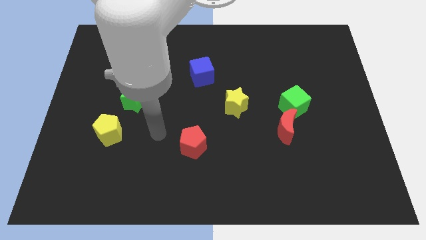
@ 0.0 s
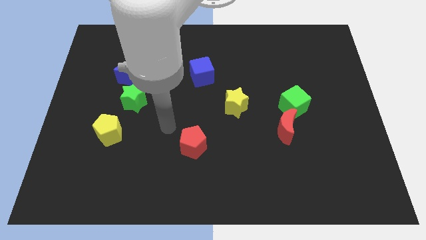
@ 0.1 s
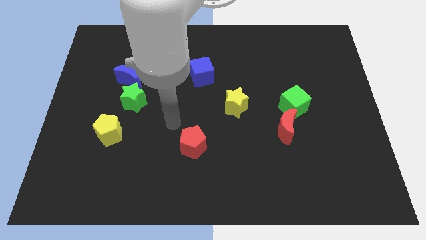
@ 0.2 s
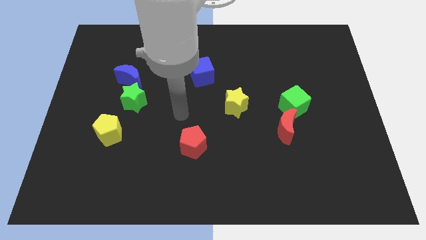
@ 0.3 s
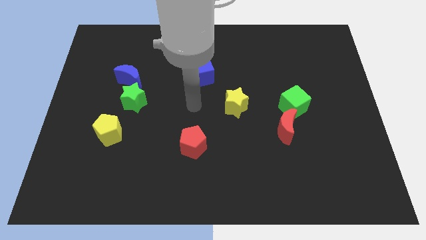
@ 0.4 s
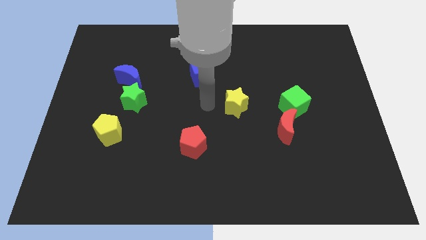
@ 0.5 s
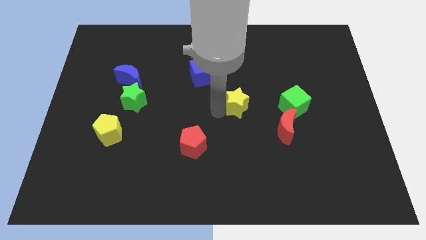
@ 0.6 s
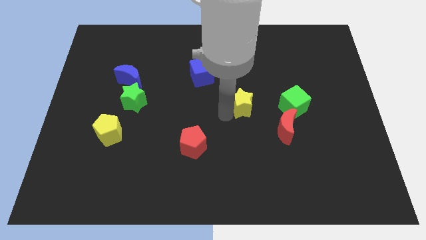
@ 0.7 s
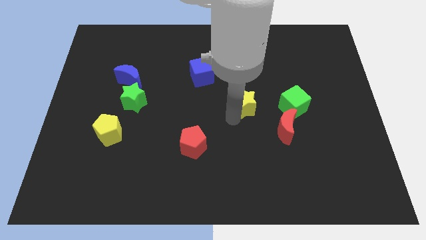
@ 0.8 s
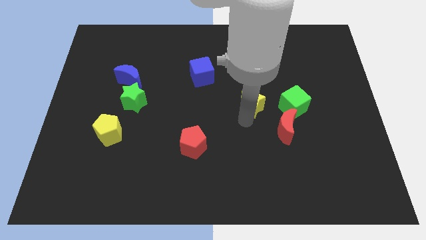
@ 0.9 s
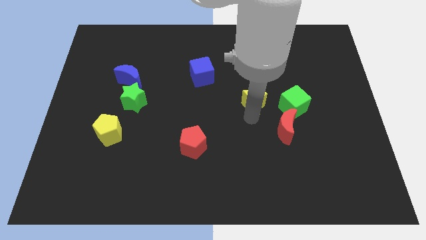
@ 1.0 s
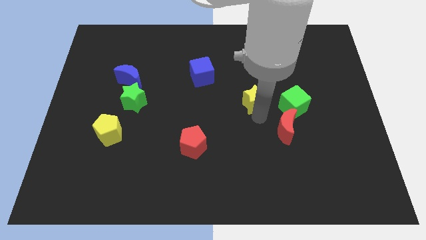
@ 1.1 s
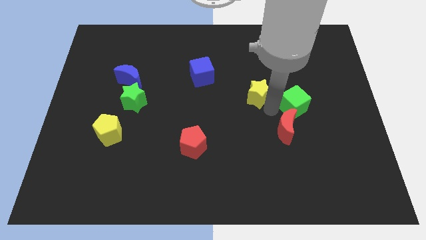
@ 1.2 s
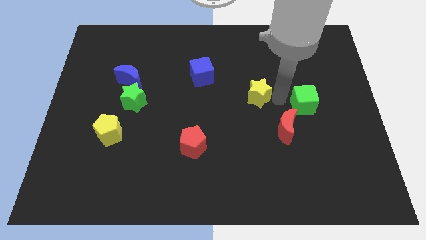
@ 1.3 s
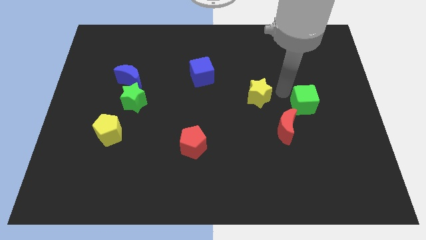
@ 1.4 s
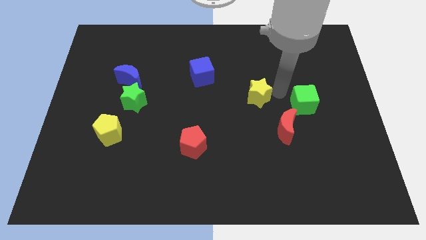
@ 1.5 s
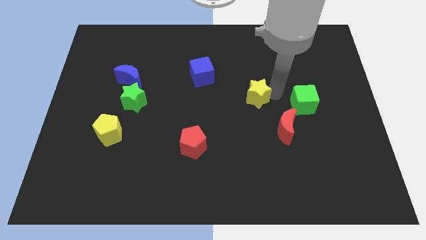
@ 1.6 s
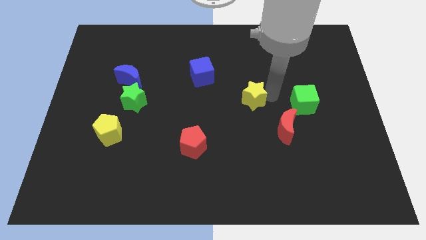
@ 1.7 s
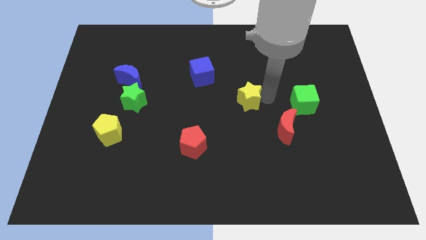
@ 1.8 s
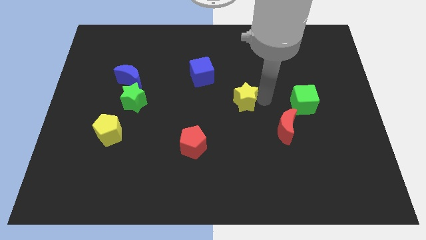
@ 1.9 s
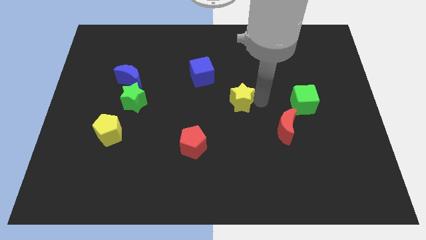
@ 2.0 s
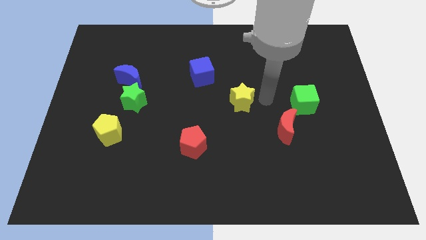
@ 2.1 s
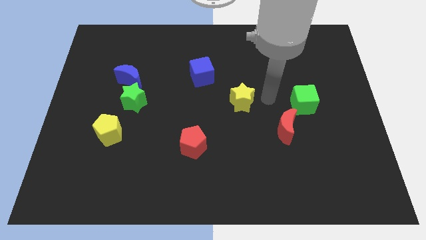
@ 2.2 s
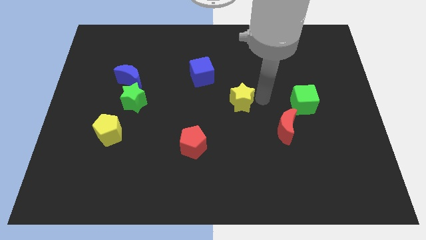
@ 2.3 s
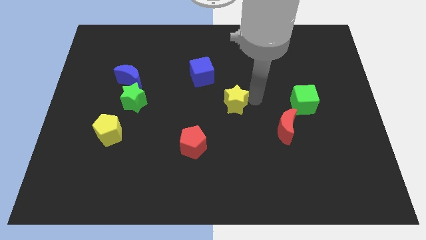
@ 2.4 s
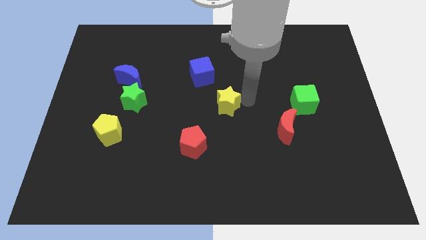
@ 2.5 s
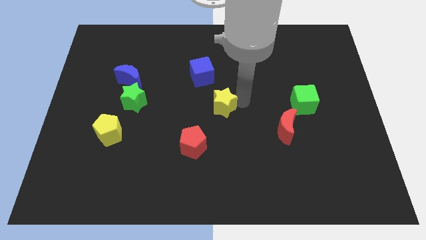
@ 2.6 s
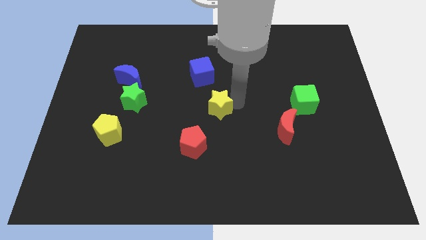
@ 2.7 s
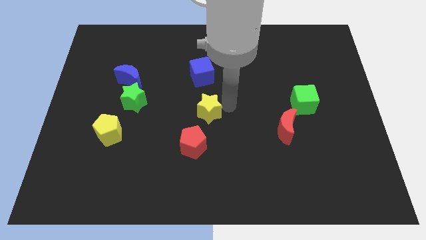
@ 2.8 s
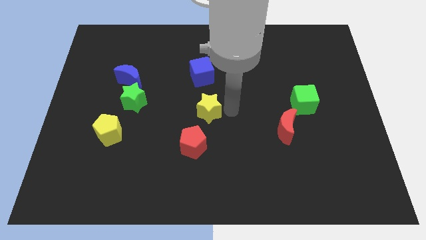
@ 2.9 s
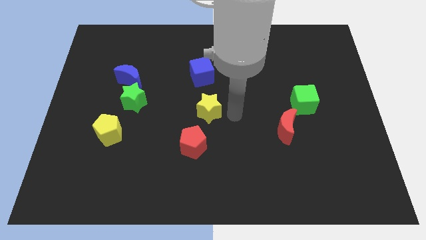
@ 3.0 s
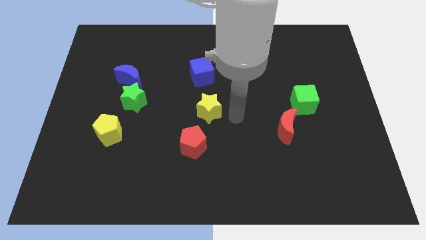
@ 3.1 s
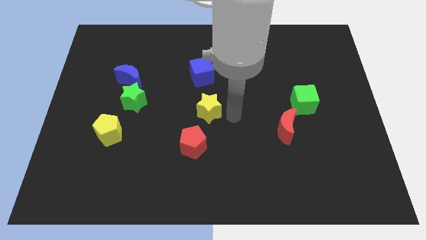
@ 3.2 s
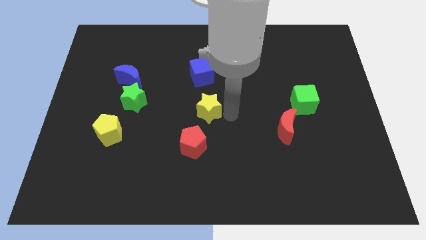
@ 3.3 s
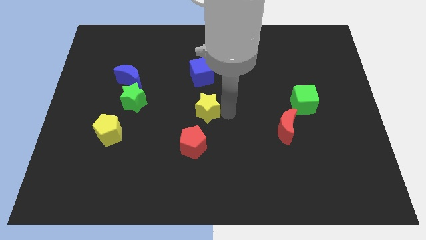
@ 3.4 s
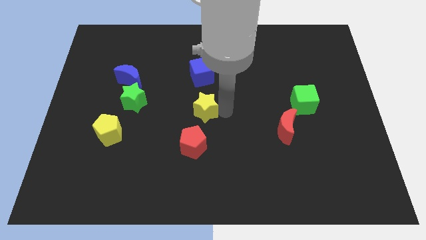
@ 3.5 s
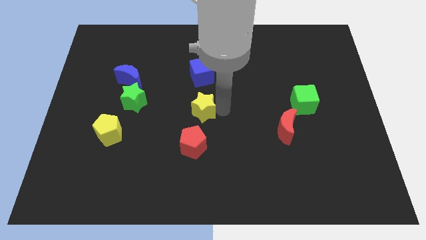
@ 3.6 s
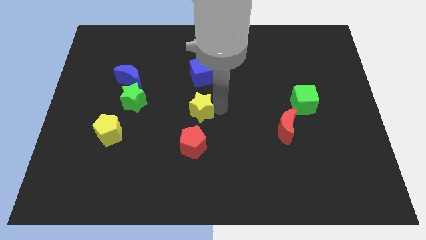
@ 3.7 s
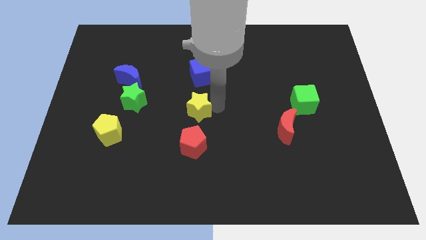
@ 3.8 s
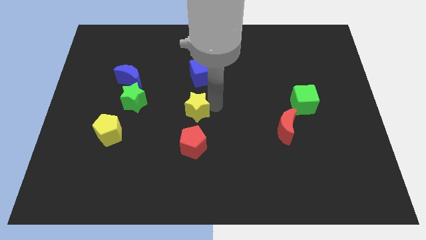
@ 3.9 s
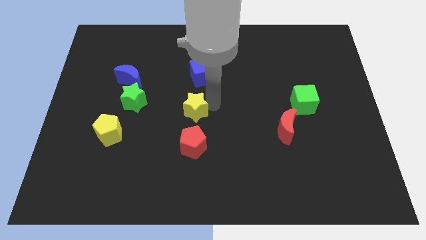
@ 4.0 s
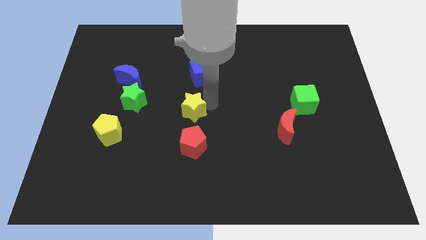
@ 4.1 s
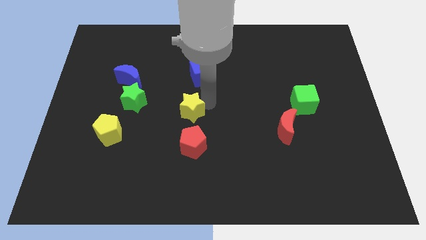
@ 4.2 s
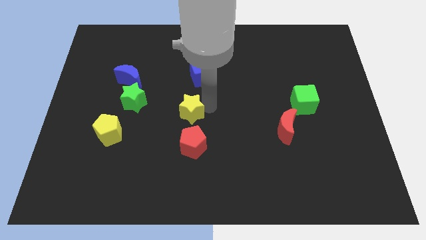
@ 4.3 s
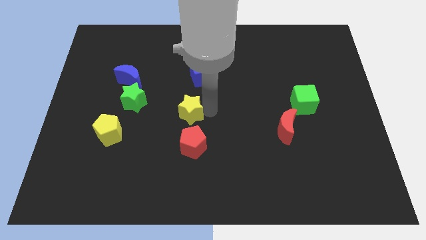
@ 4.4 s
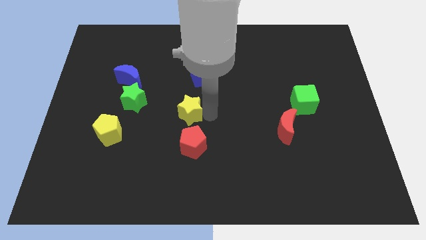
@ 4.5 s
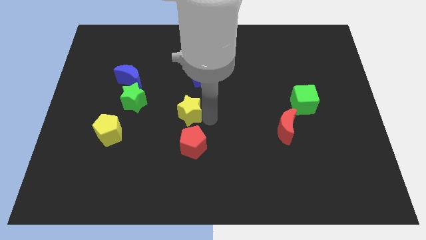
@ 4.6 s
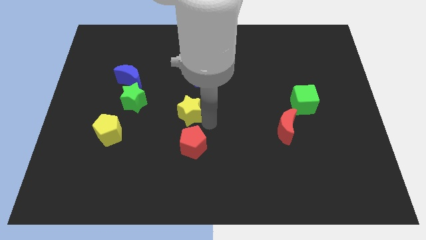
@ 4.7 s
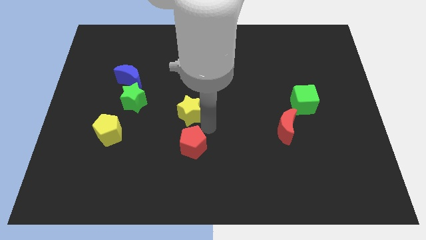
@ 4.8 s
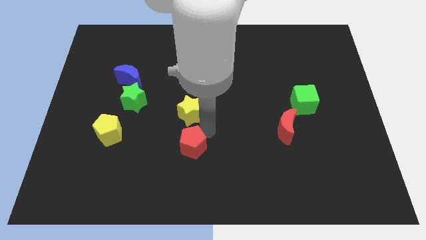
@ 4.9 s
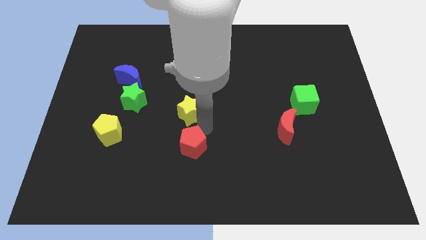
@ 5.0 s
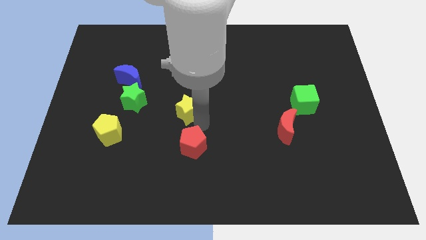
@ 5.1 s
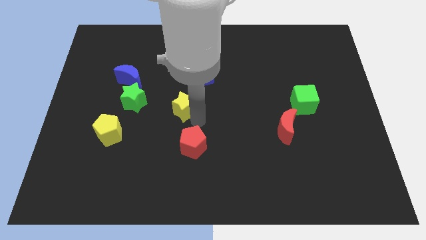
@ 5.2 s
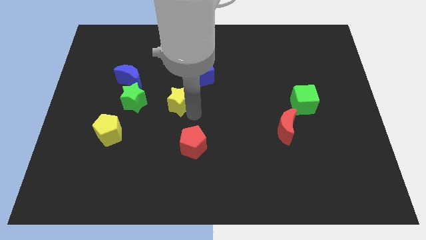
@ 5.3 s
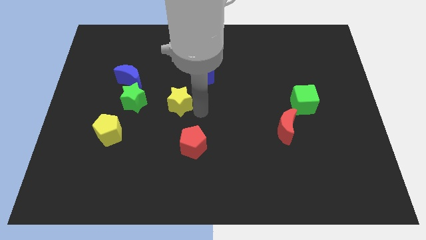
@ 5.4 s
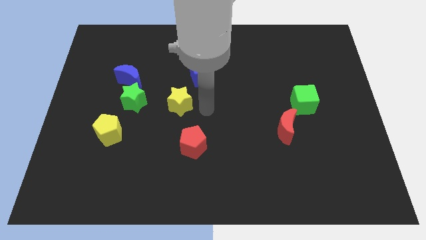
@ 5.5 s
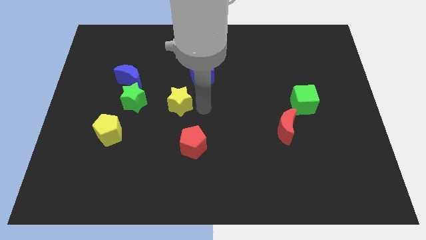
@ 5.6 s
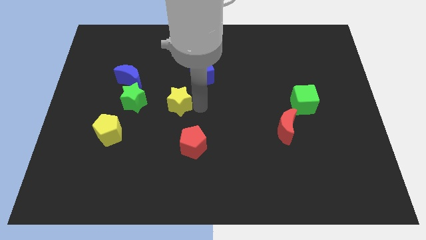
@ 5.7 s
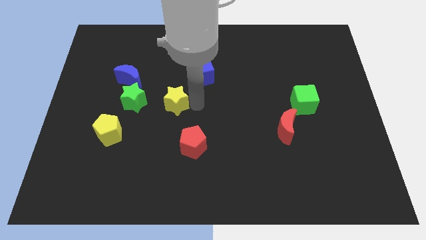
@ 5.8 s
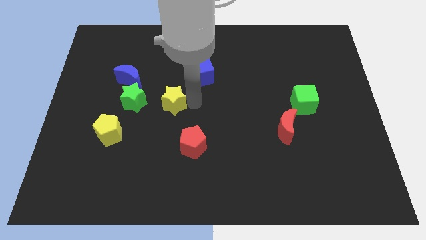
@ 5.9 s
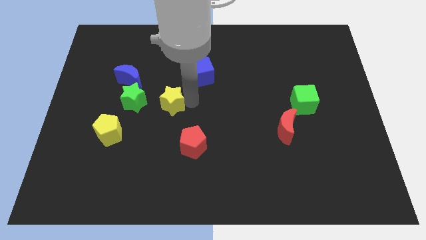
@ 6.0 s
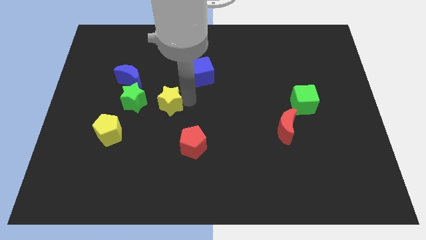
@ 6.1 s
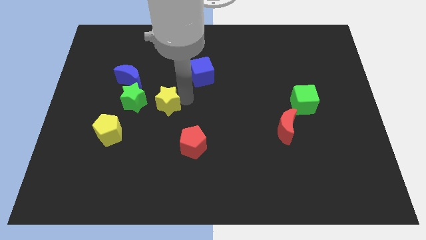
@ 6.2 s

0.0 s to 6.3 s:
push the yellow star diagonally down and to the right of the blue moon

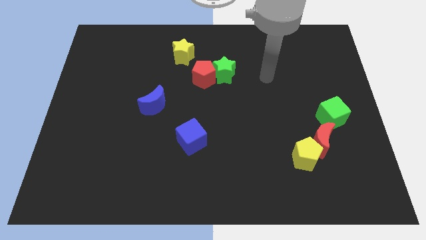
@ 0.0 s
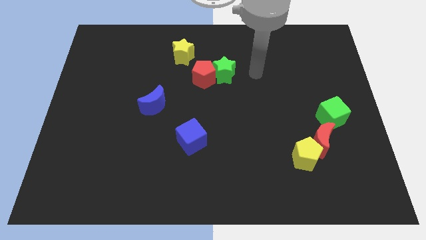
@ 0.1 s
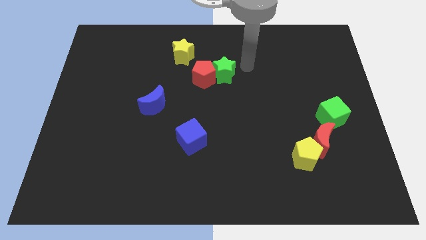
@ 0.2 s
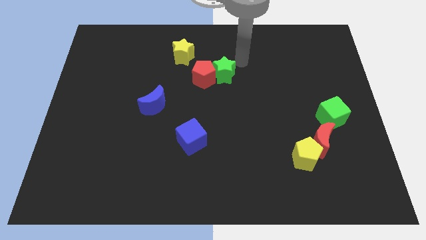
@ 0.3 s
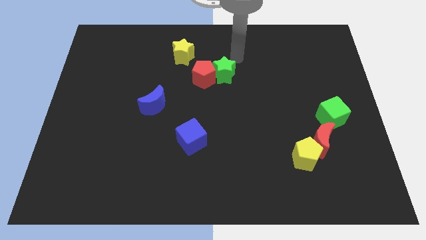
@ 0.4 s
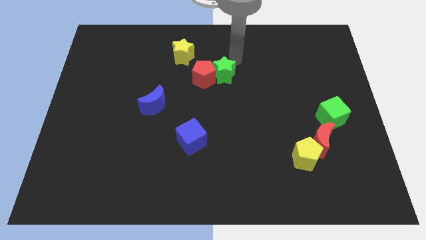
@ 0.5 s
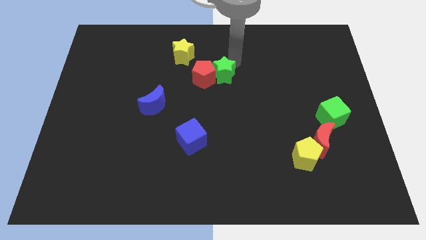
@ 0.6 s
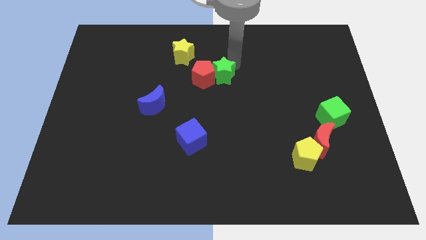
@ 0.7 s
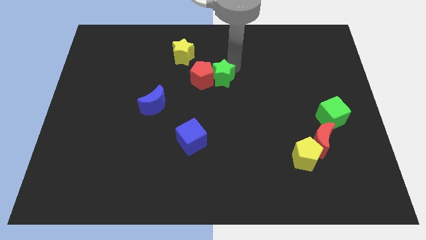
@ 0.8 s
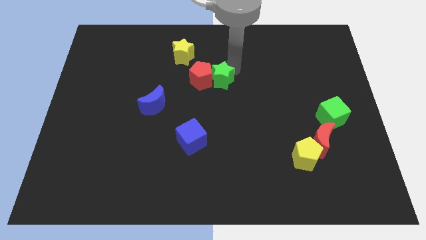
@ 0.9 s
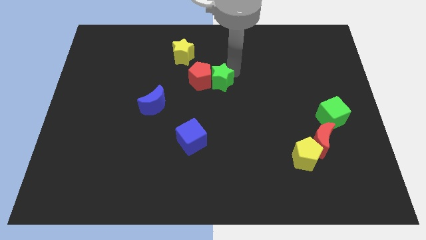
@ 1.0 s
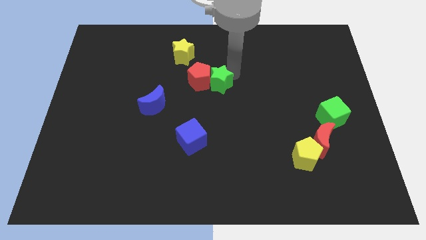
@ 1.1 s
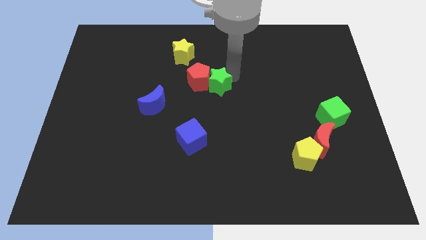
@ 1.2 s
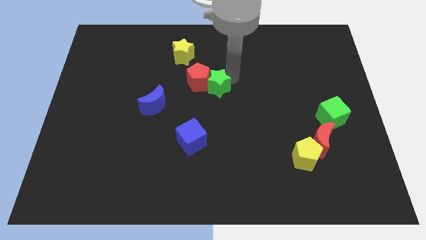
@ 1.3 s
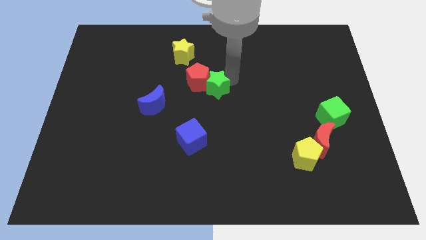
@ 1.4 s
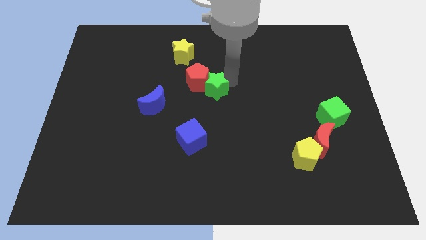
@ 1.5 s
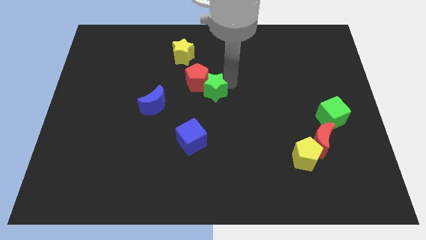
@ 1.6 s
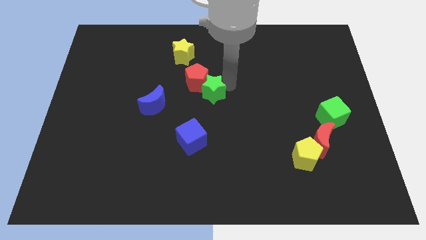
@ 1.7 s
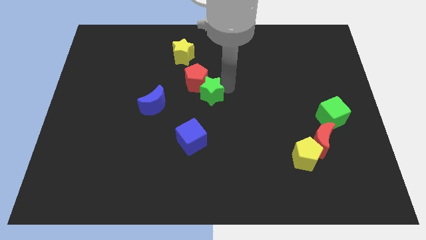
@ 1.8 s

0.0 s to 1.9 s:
slide the green star above the blue cube
